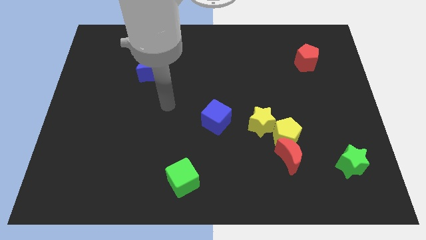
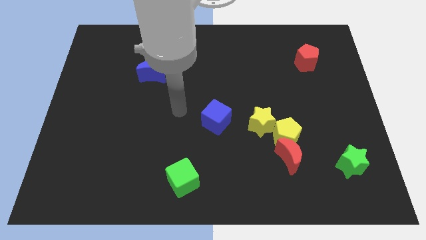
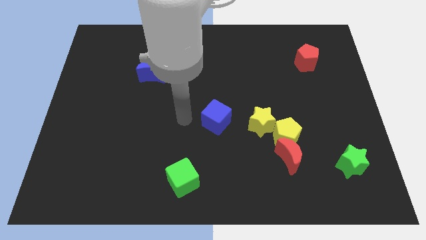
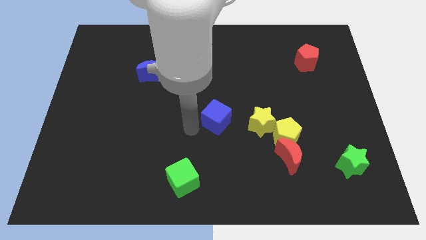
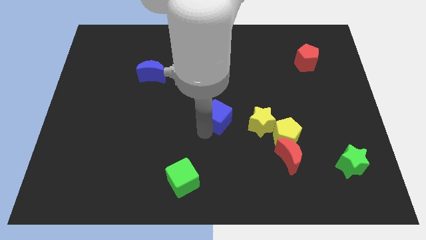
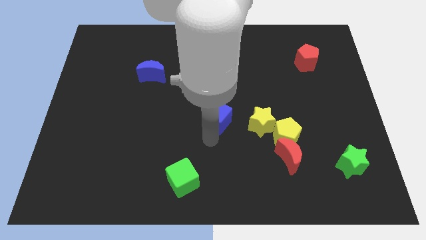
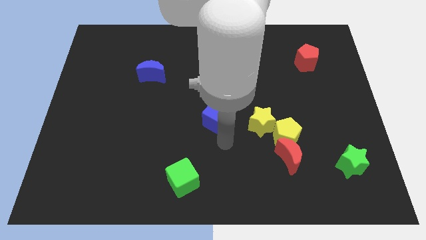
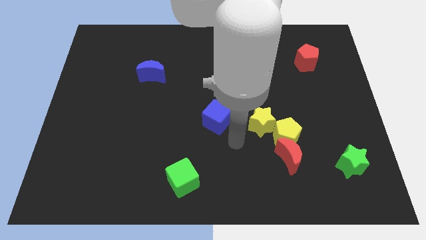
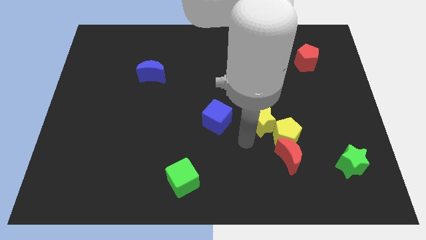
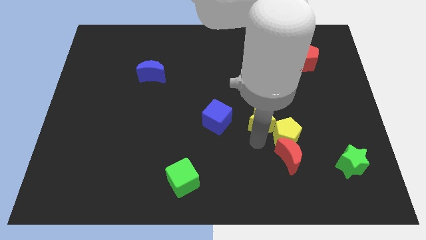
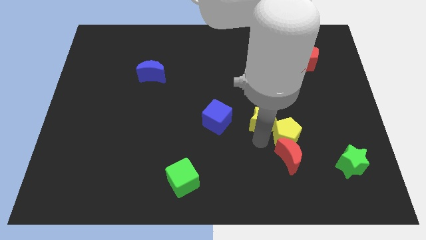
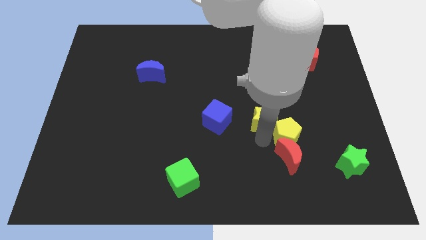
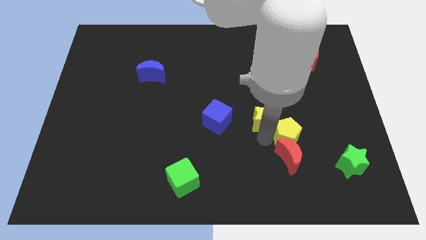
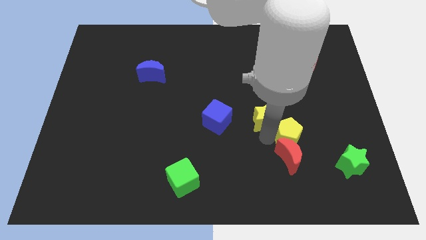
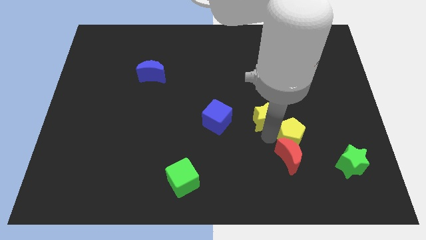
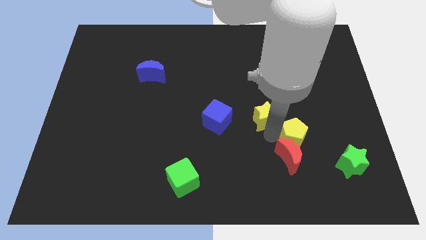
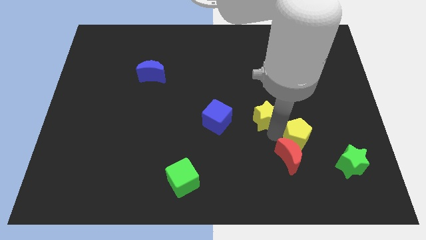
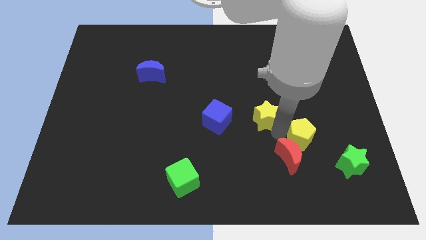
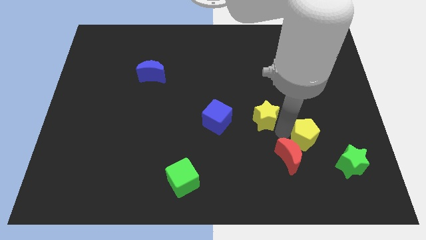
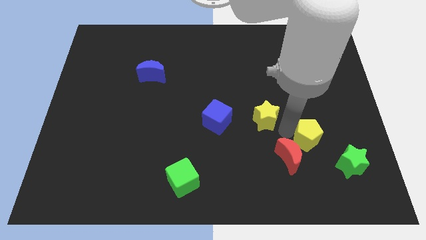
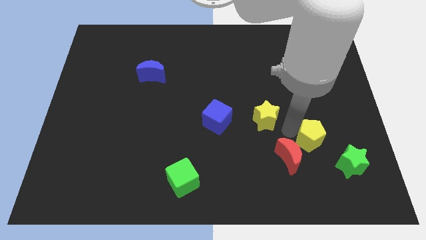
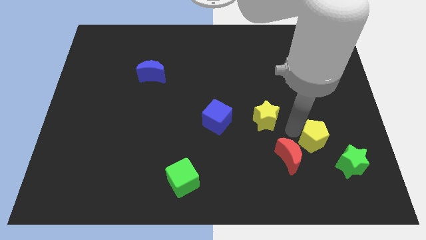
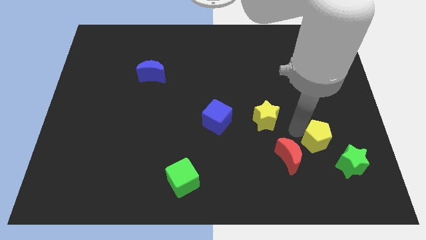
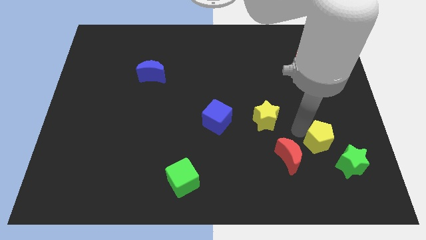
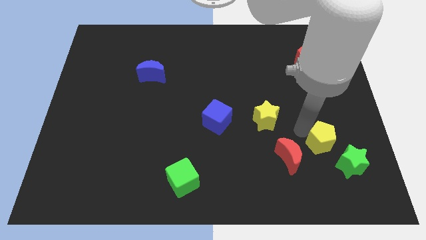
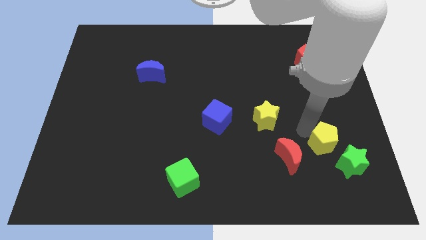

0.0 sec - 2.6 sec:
pull the yellow pentagon apart from the red moon and yellow star

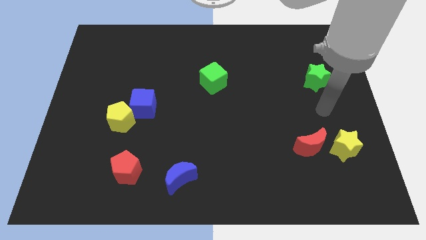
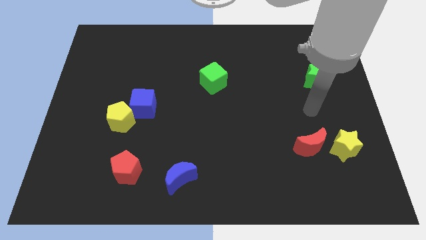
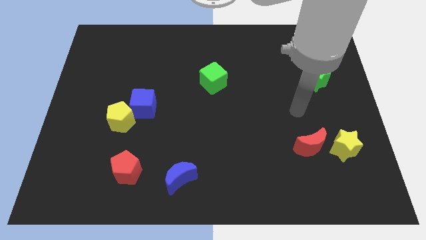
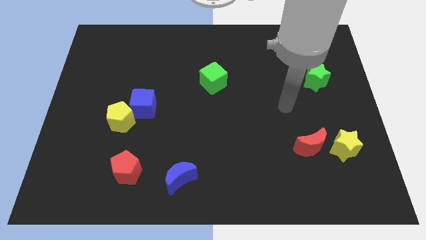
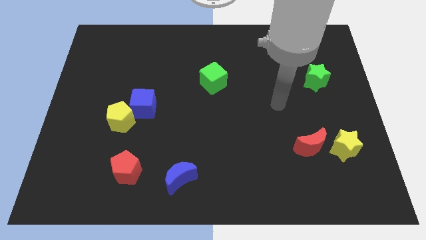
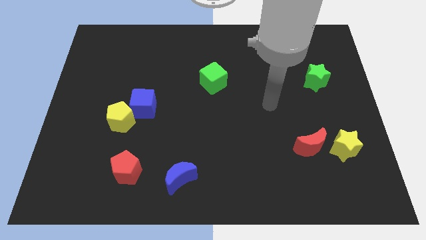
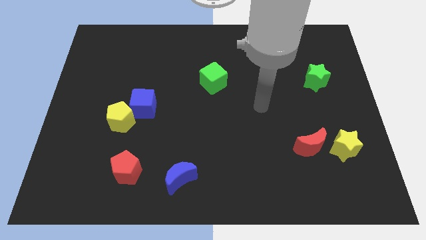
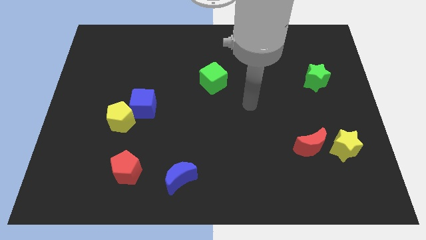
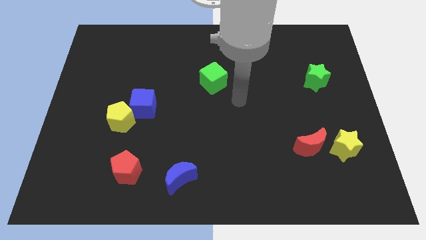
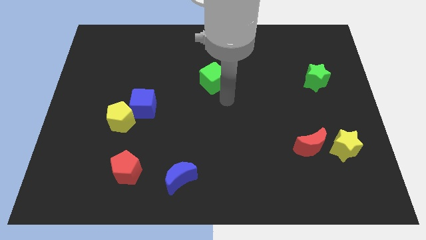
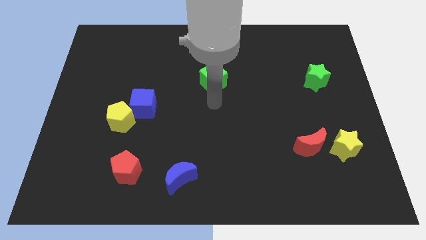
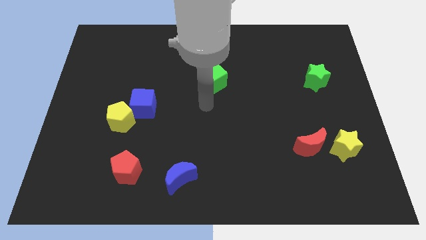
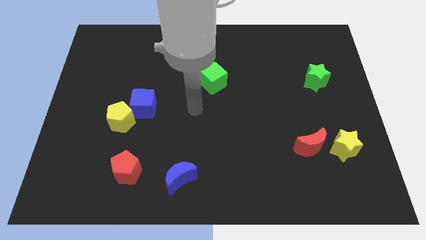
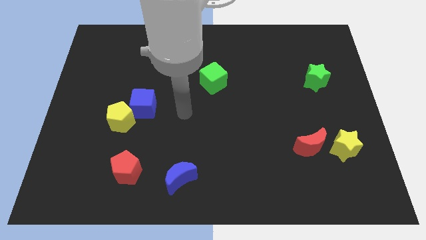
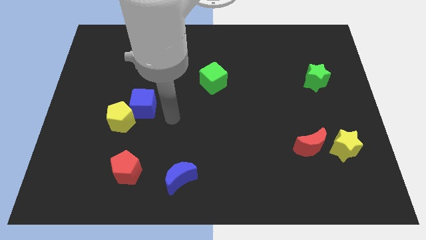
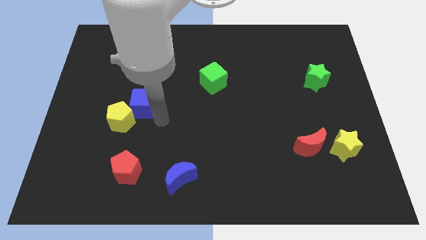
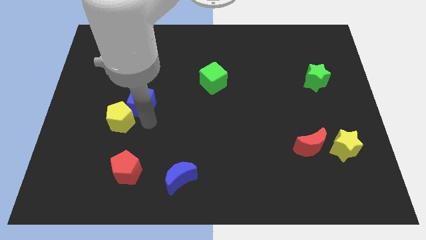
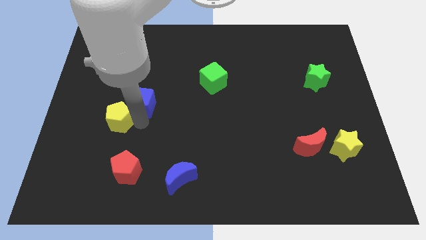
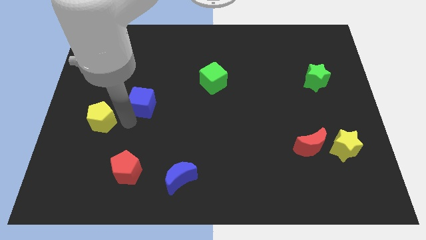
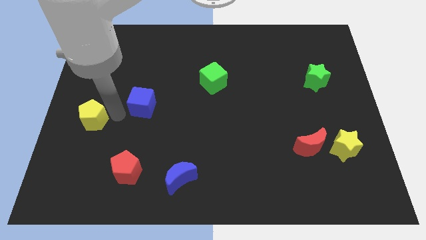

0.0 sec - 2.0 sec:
move the blue cube away from the yellow pentagon

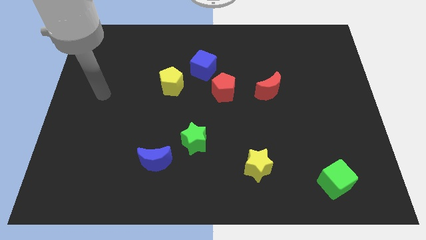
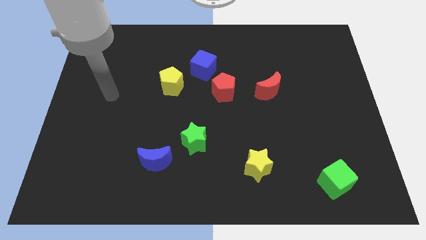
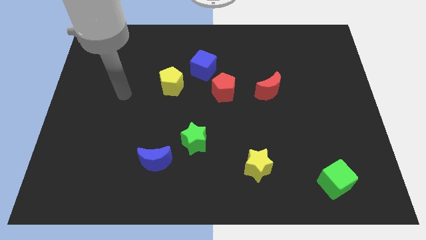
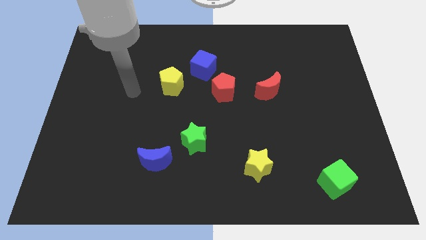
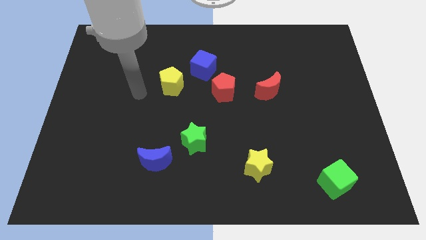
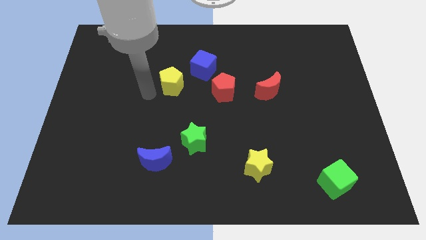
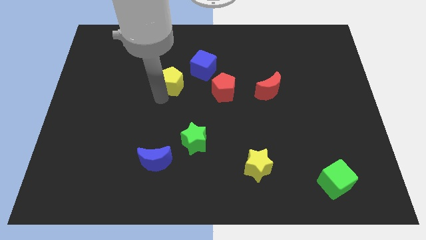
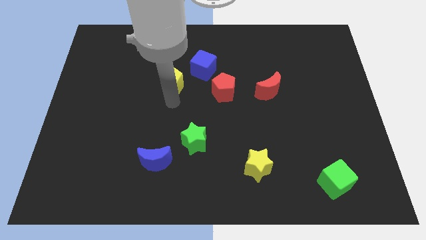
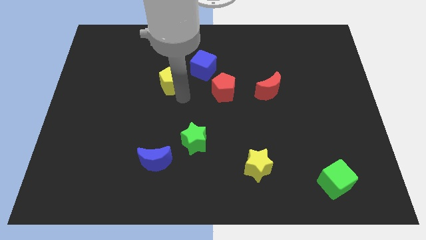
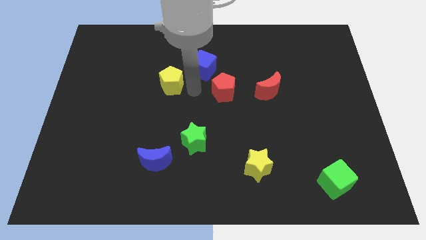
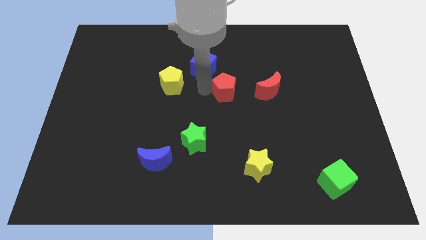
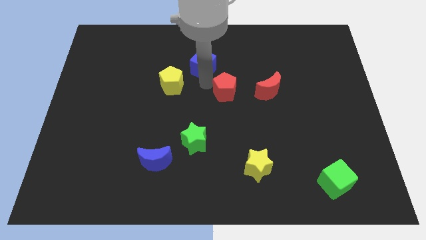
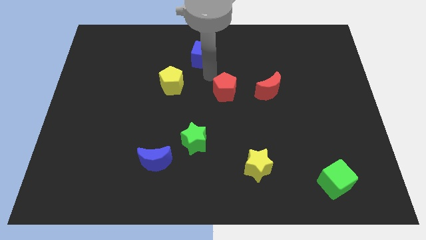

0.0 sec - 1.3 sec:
separate the red pentagon from the blue cube

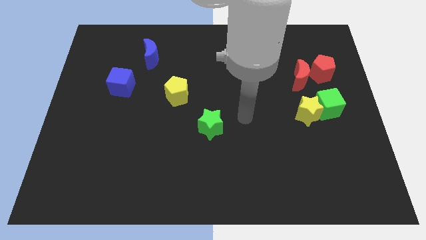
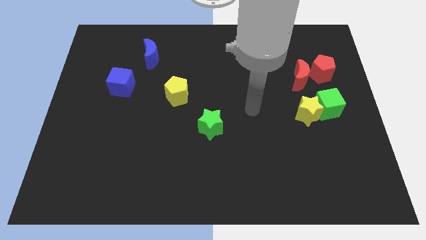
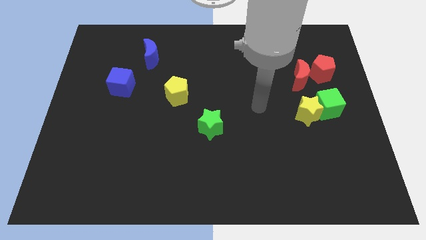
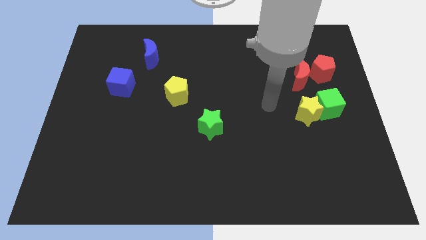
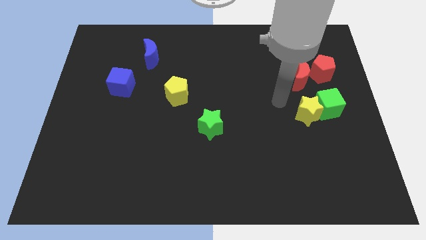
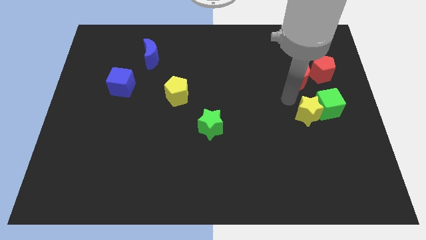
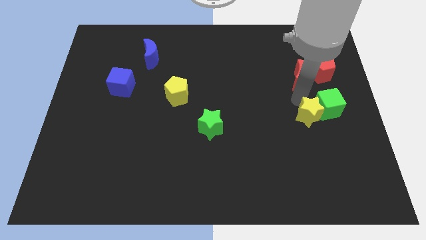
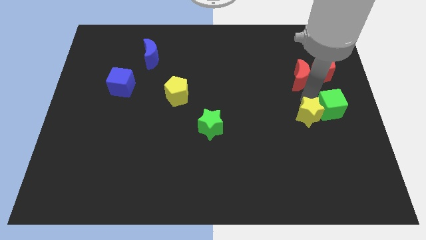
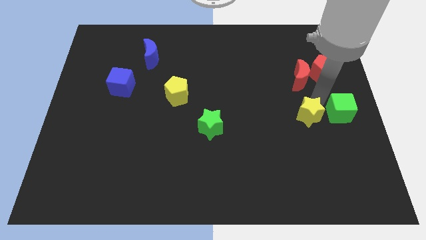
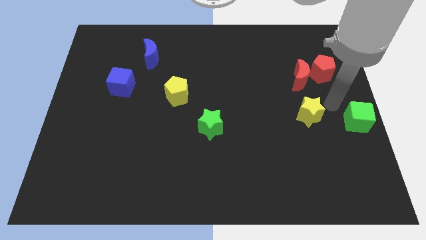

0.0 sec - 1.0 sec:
pull the yellow star apart from the green cube

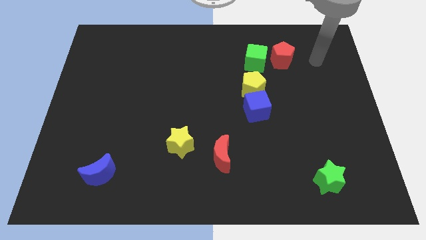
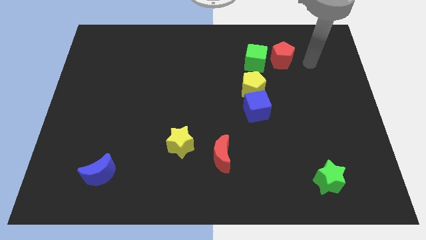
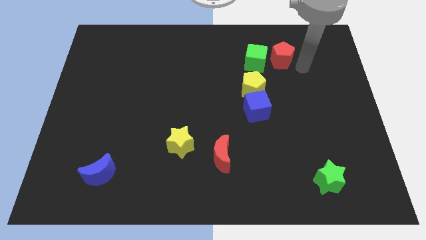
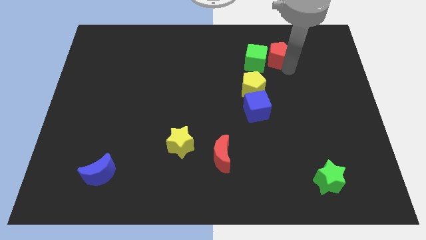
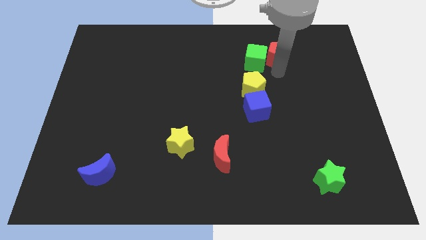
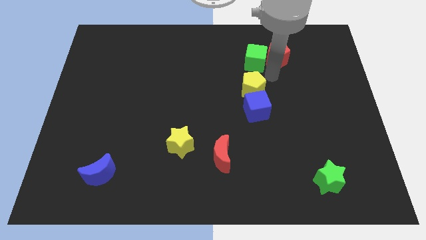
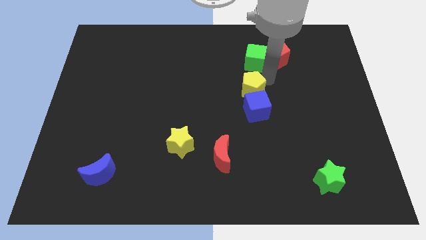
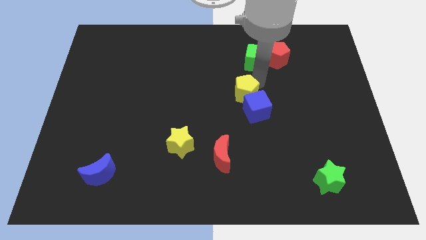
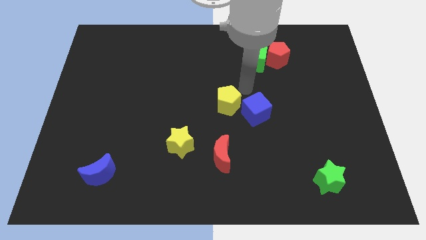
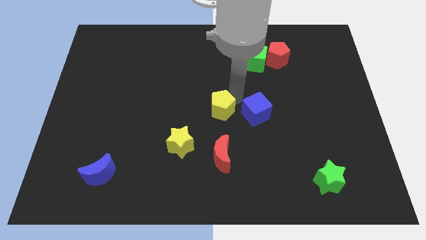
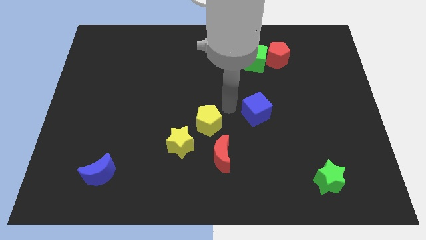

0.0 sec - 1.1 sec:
separate the blue cube from the yellow pentagon

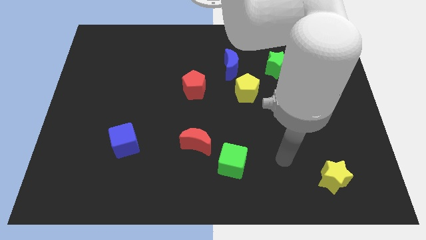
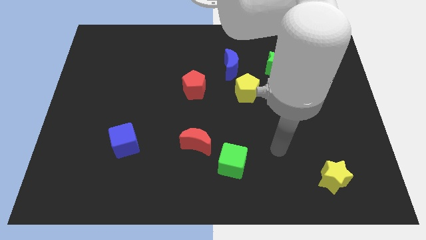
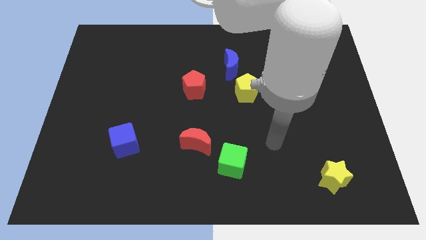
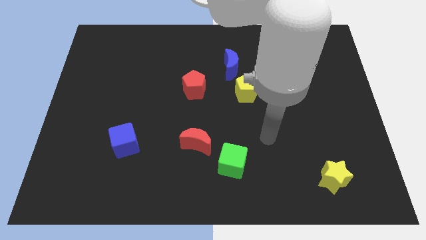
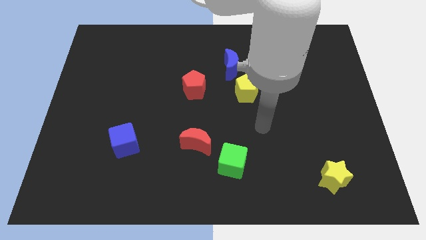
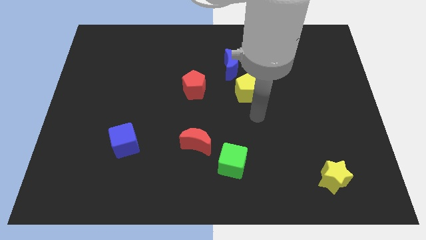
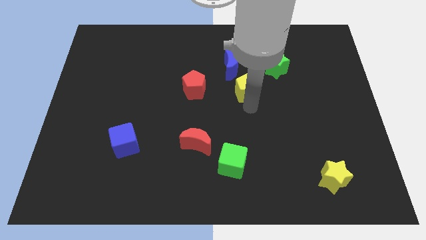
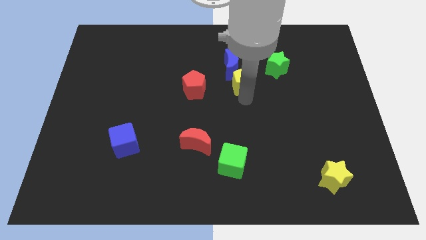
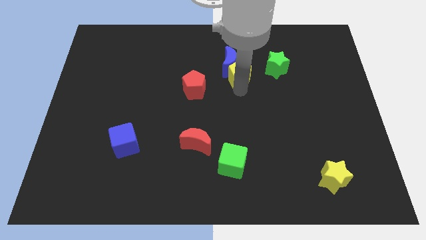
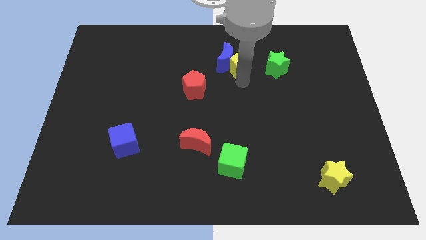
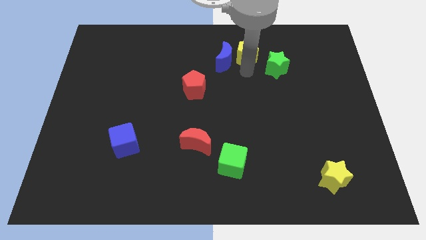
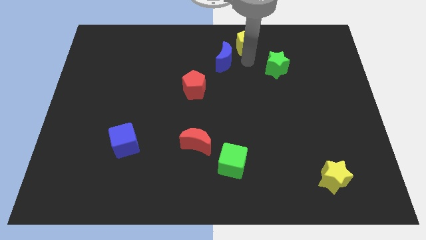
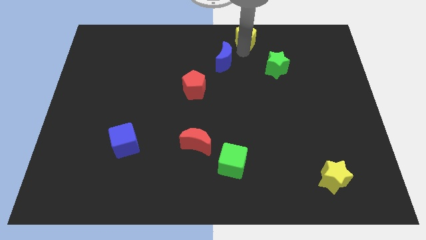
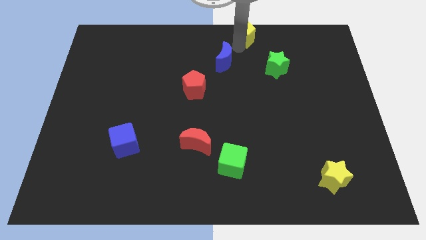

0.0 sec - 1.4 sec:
separate the blue moon from the yellow pentagon
